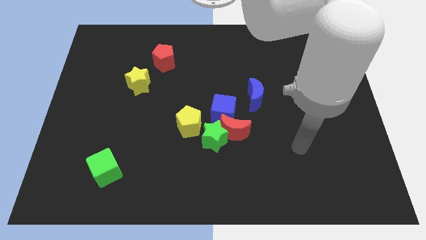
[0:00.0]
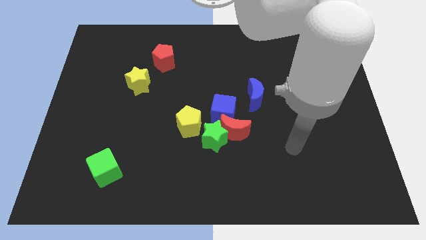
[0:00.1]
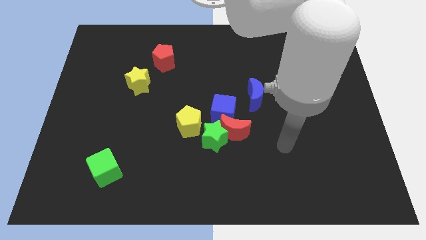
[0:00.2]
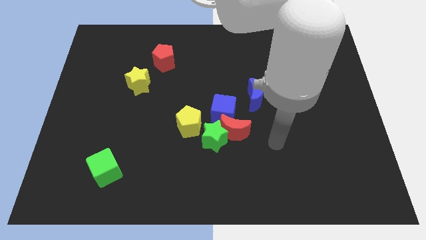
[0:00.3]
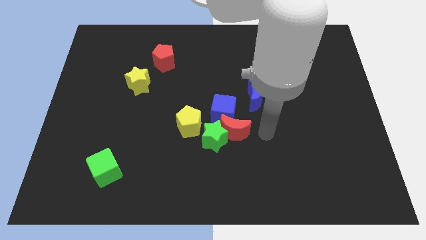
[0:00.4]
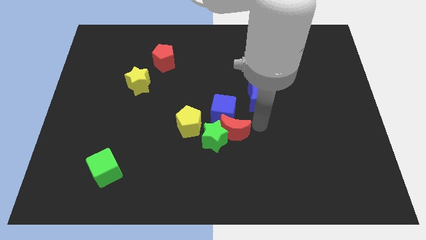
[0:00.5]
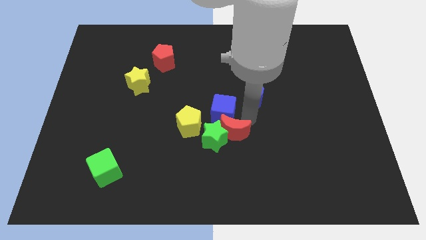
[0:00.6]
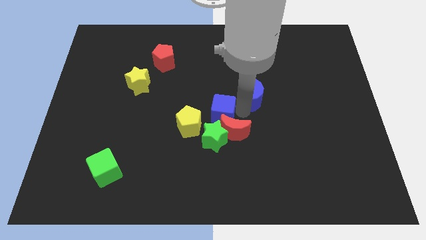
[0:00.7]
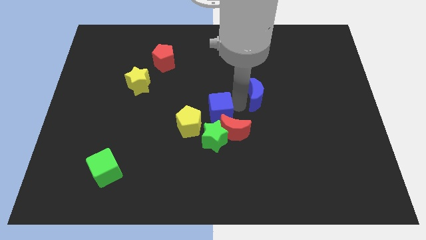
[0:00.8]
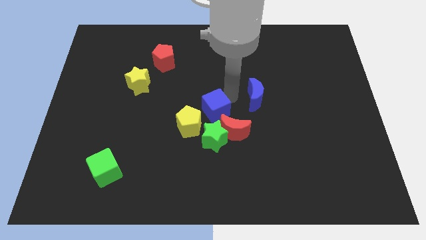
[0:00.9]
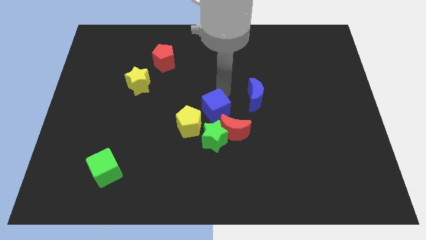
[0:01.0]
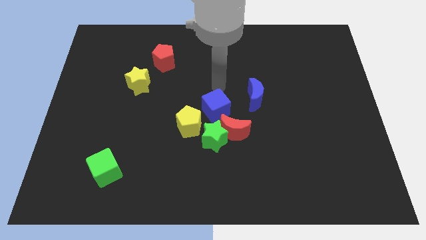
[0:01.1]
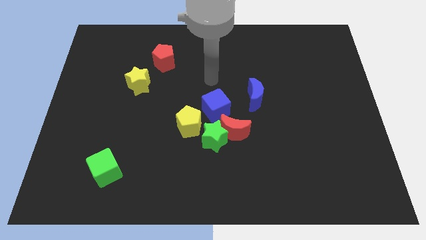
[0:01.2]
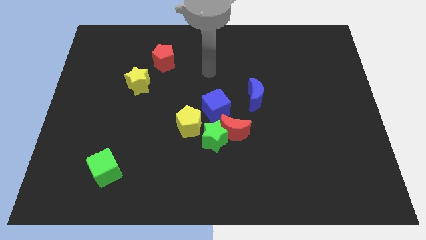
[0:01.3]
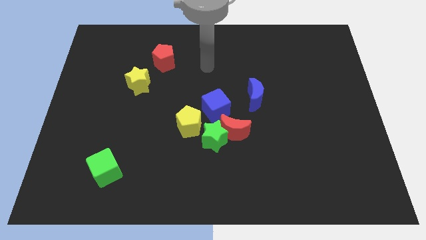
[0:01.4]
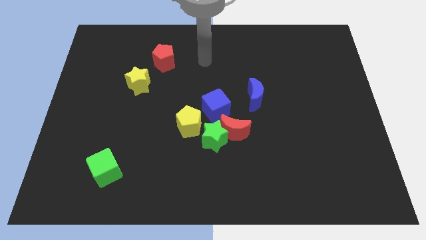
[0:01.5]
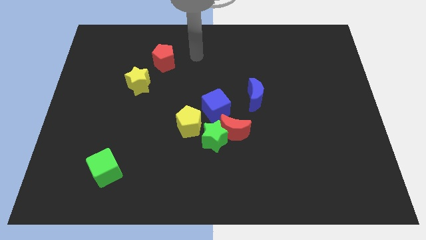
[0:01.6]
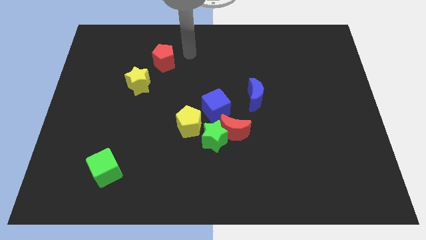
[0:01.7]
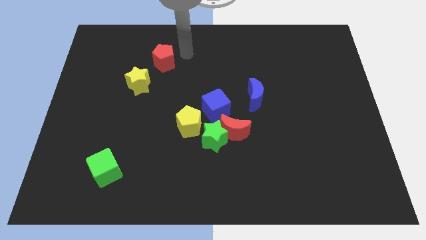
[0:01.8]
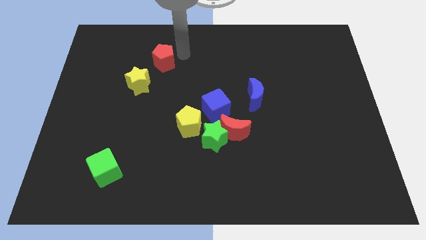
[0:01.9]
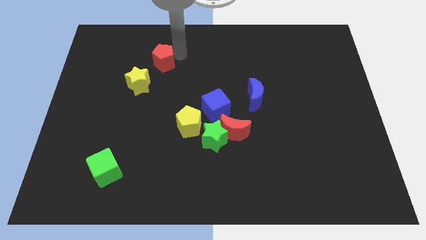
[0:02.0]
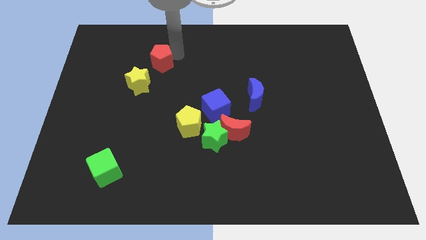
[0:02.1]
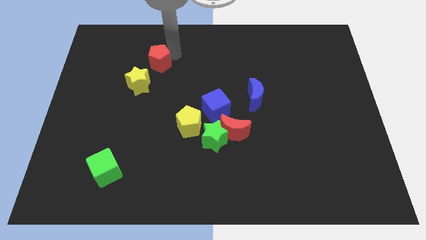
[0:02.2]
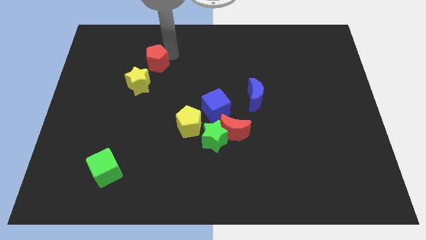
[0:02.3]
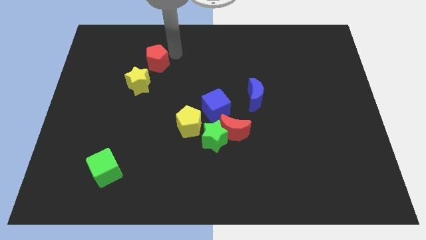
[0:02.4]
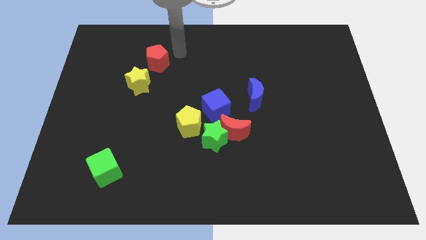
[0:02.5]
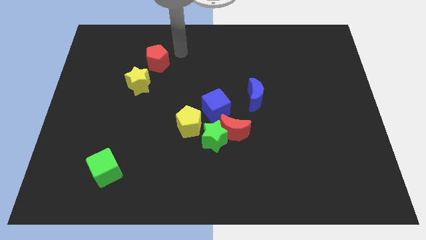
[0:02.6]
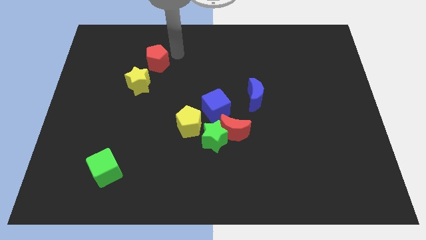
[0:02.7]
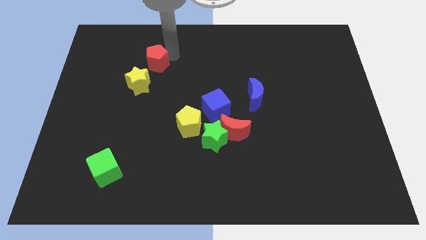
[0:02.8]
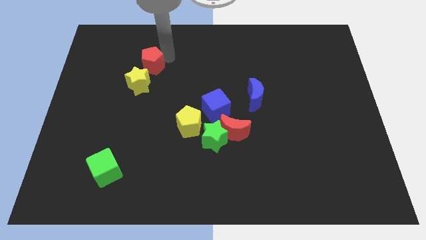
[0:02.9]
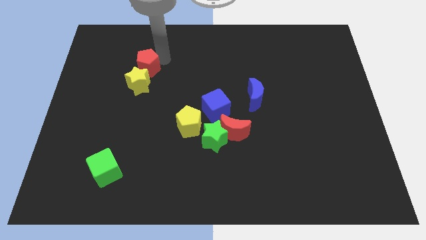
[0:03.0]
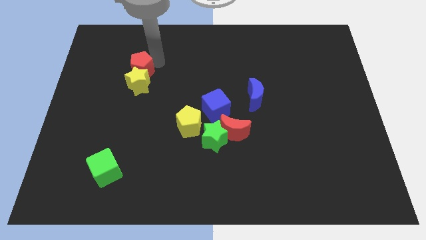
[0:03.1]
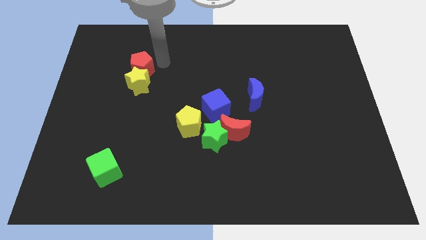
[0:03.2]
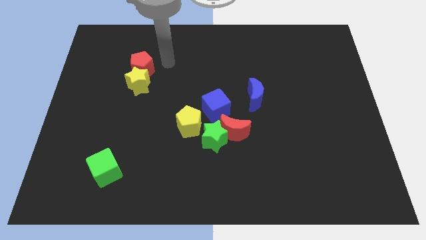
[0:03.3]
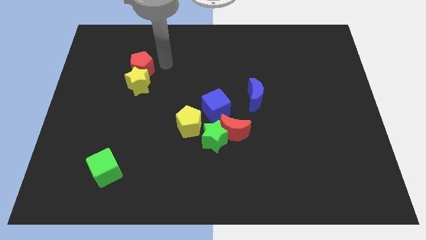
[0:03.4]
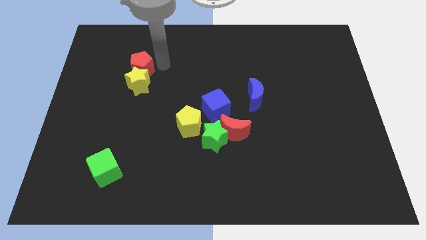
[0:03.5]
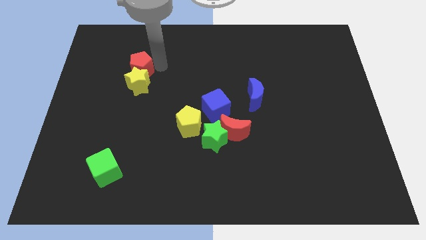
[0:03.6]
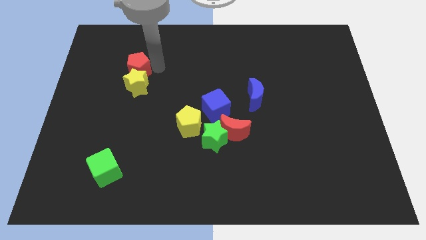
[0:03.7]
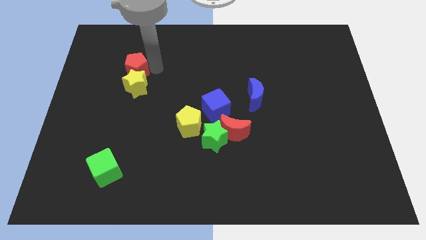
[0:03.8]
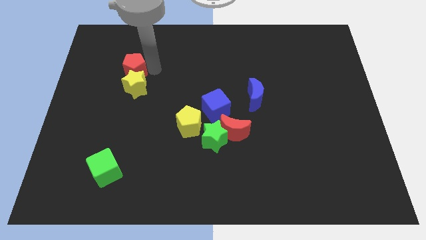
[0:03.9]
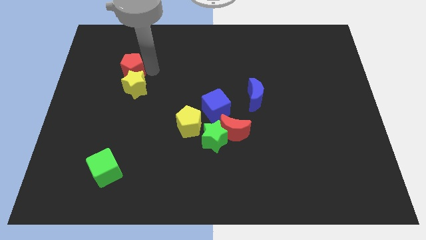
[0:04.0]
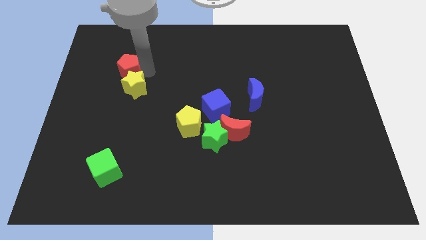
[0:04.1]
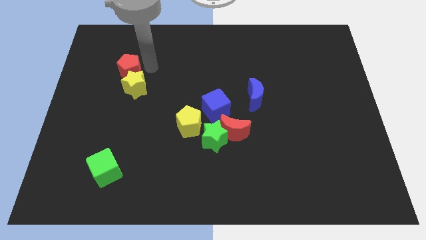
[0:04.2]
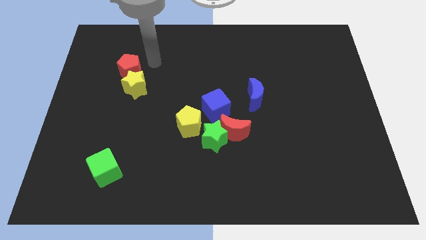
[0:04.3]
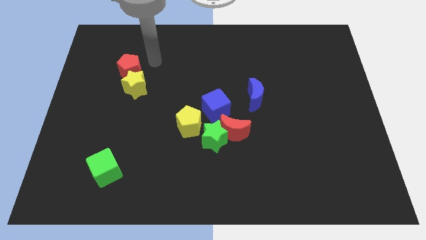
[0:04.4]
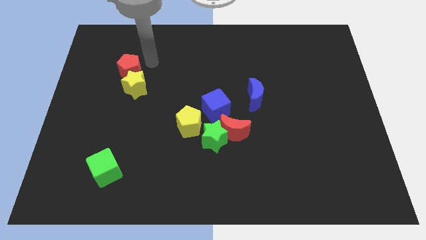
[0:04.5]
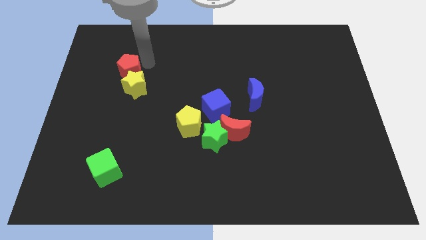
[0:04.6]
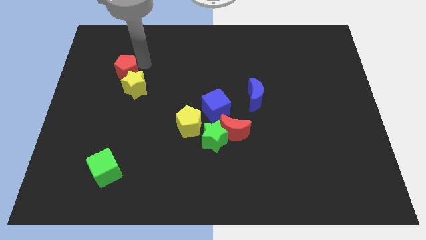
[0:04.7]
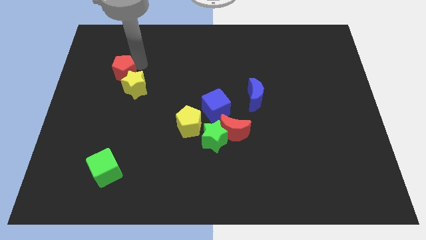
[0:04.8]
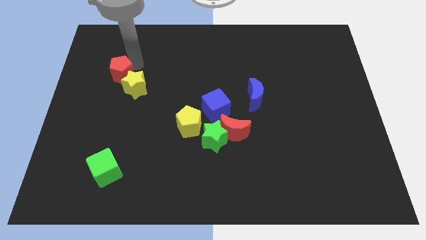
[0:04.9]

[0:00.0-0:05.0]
push the red pentagon to the left of the yellow star

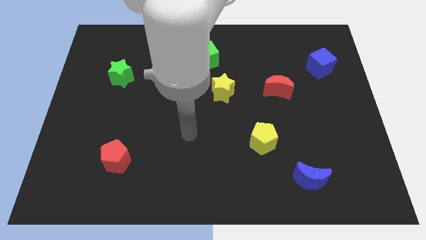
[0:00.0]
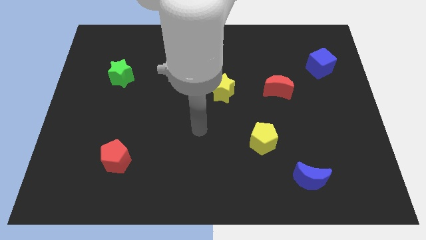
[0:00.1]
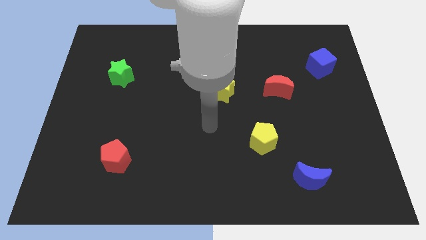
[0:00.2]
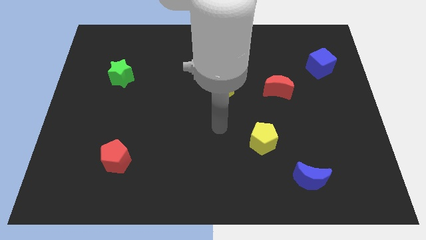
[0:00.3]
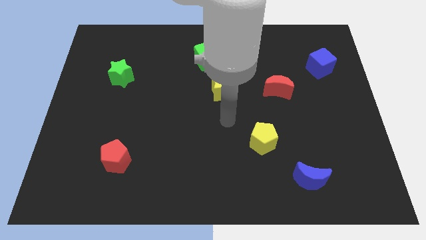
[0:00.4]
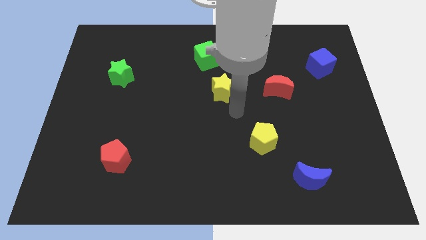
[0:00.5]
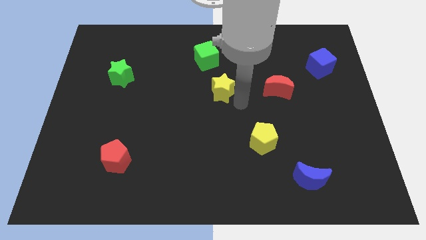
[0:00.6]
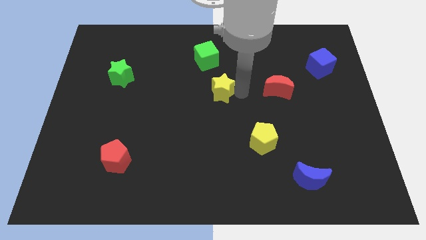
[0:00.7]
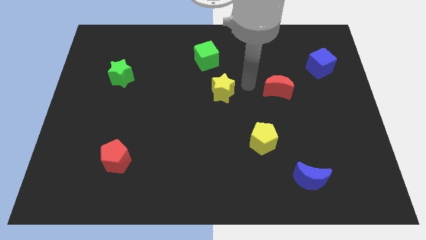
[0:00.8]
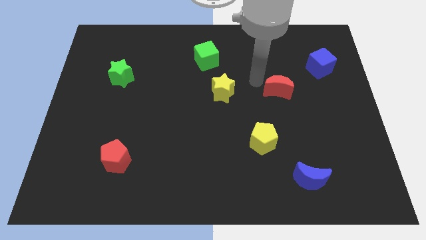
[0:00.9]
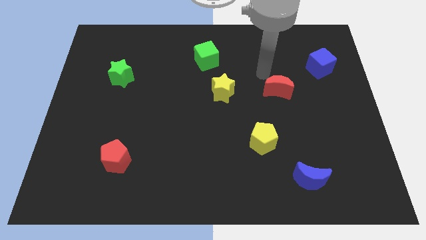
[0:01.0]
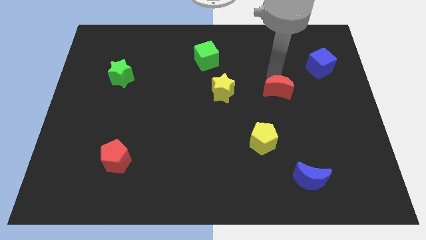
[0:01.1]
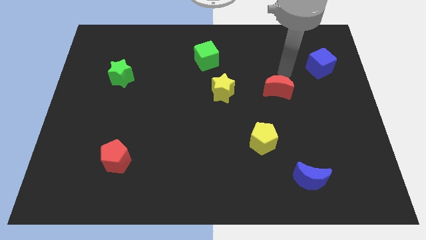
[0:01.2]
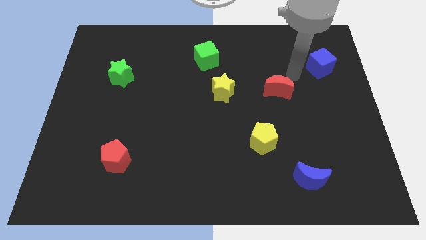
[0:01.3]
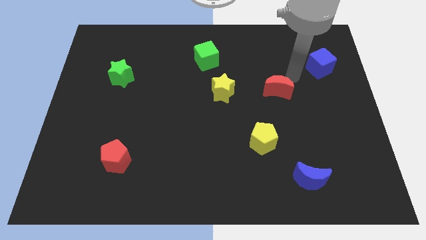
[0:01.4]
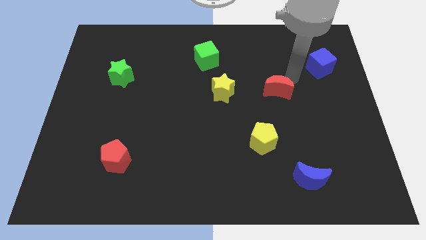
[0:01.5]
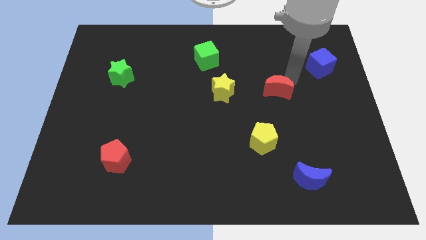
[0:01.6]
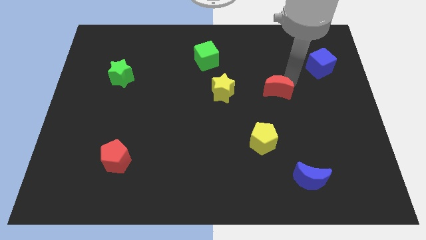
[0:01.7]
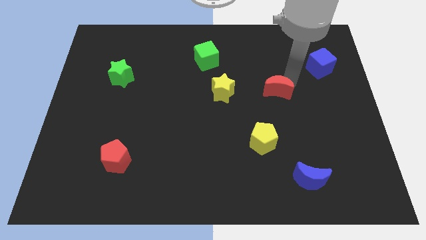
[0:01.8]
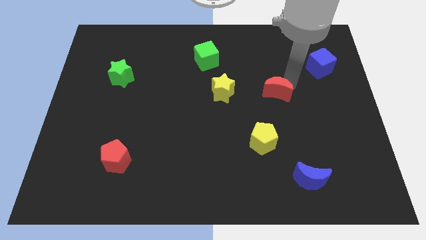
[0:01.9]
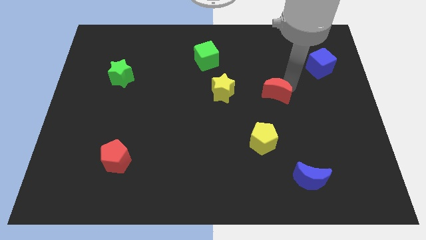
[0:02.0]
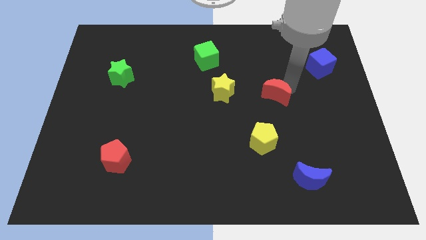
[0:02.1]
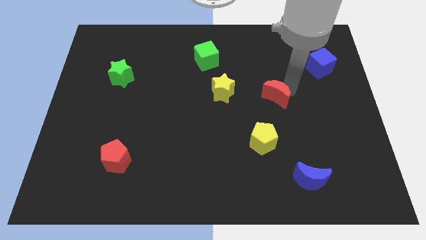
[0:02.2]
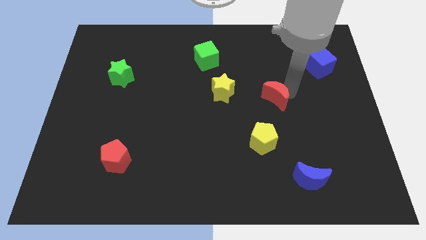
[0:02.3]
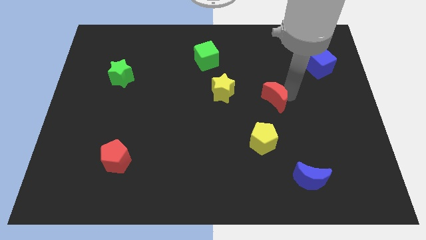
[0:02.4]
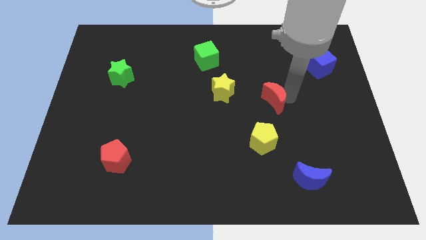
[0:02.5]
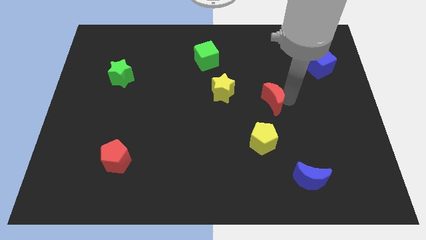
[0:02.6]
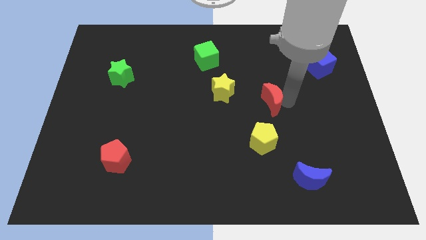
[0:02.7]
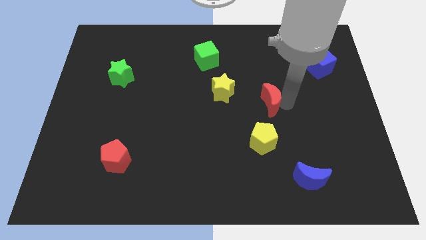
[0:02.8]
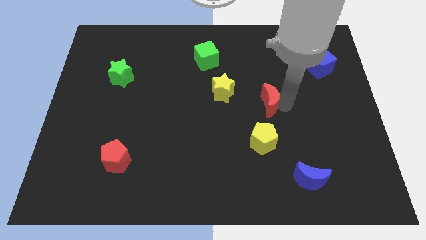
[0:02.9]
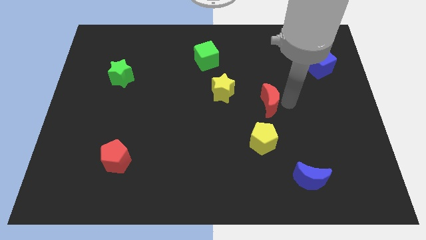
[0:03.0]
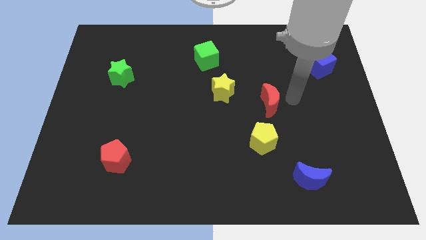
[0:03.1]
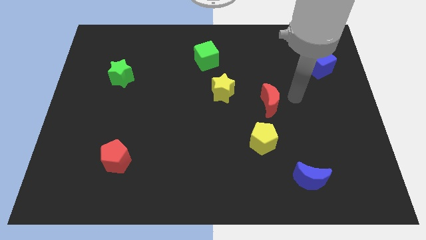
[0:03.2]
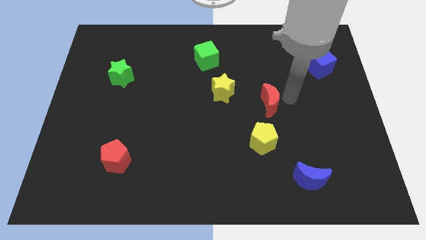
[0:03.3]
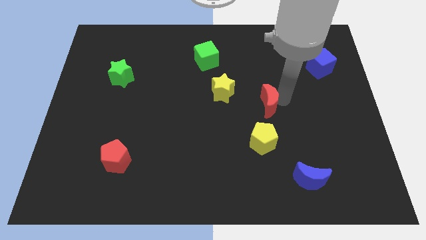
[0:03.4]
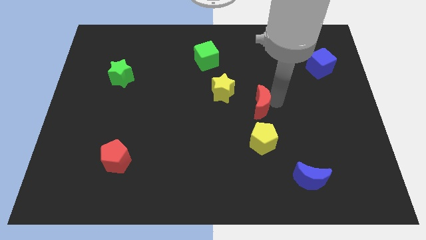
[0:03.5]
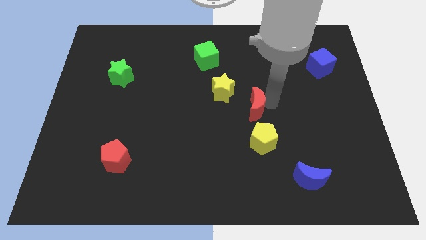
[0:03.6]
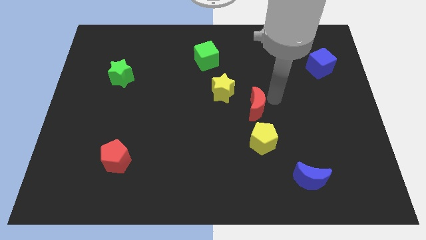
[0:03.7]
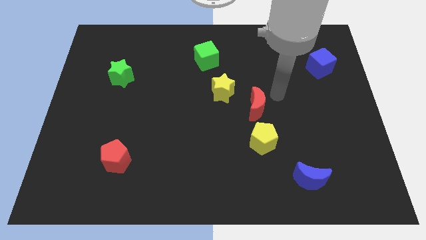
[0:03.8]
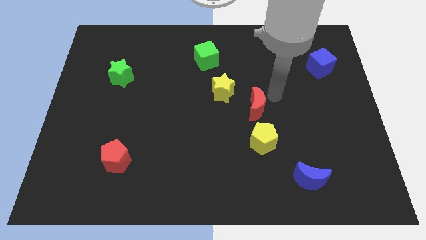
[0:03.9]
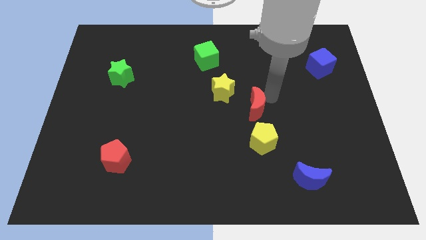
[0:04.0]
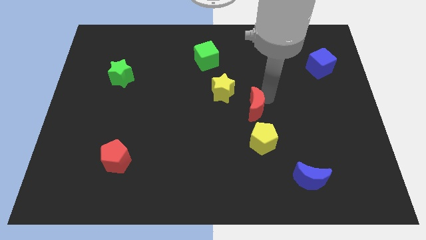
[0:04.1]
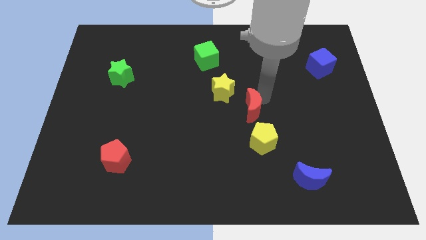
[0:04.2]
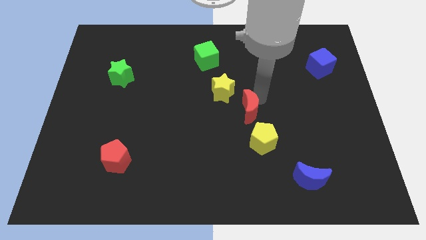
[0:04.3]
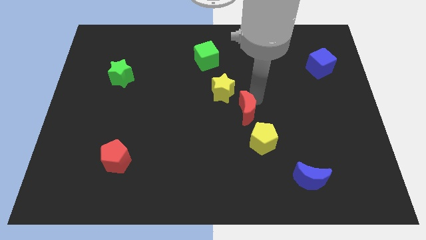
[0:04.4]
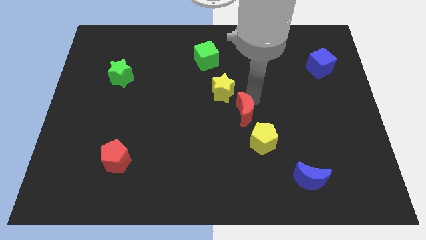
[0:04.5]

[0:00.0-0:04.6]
push the red moon to the bottom of the yellow star
